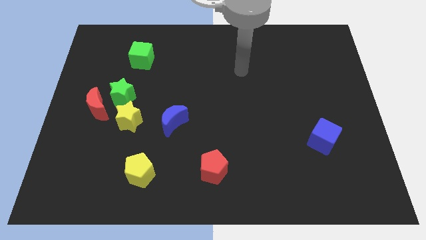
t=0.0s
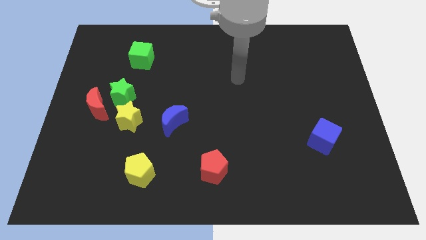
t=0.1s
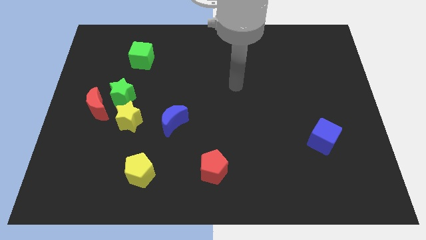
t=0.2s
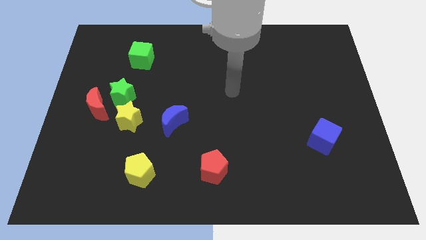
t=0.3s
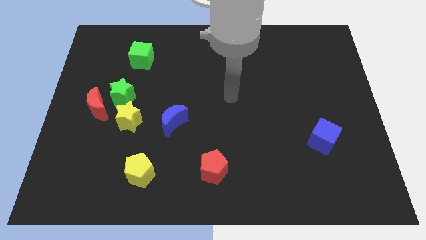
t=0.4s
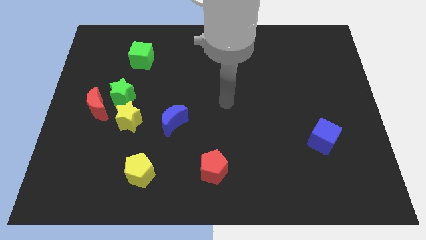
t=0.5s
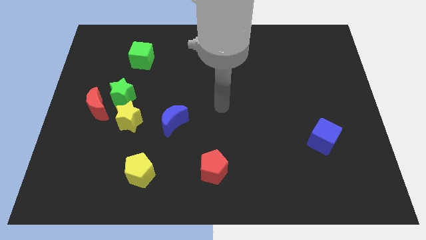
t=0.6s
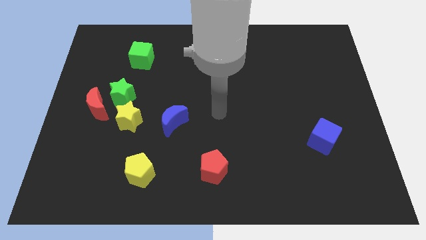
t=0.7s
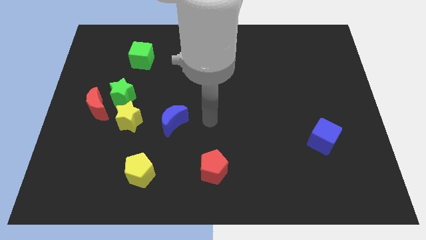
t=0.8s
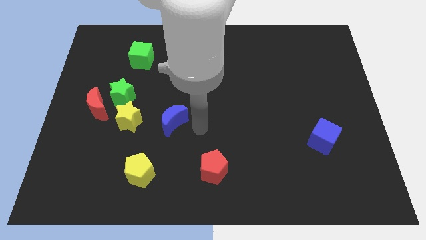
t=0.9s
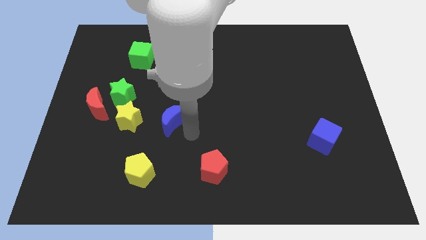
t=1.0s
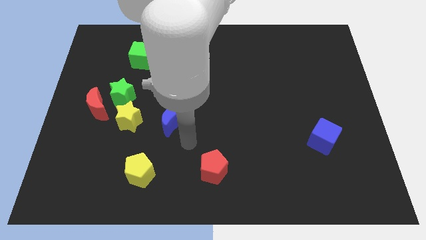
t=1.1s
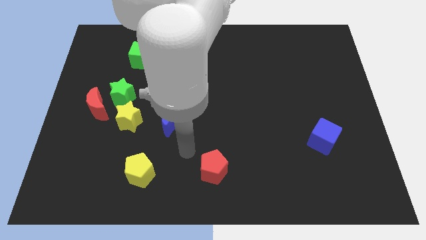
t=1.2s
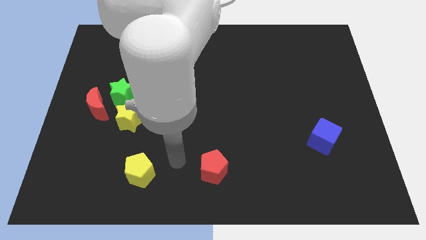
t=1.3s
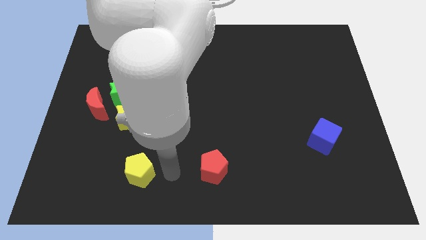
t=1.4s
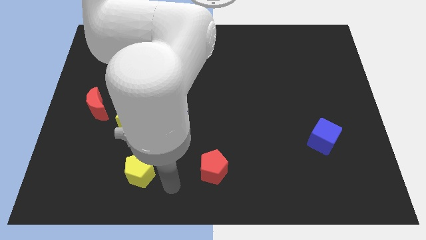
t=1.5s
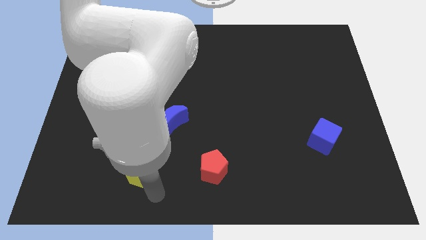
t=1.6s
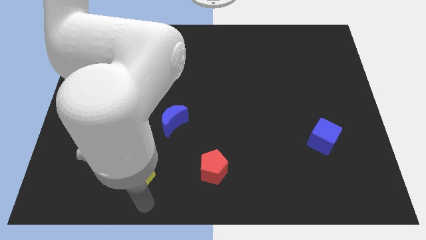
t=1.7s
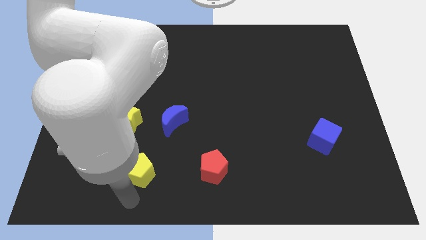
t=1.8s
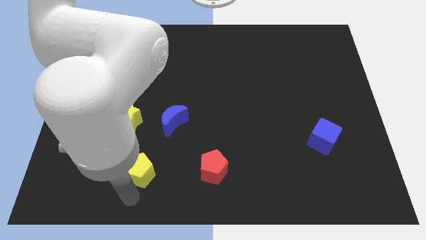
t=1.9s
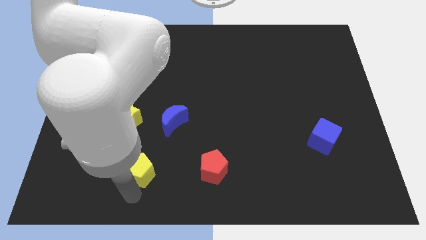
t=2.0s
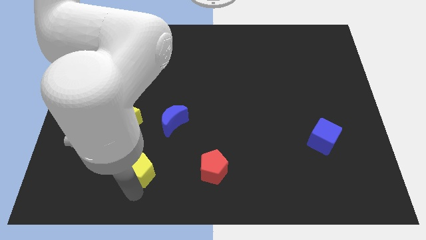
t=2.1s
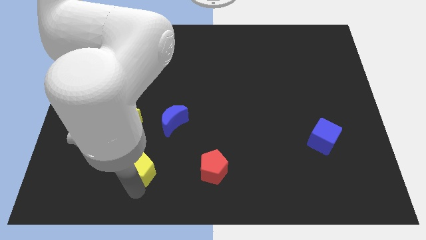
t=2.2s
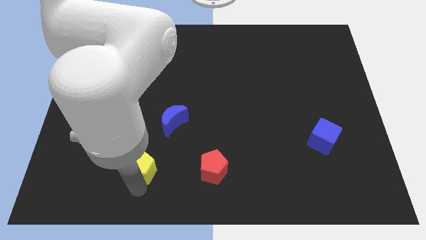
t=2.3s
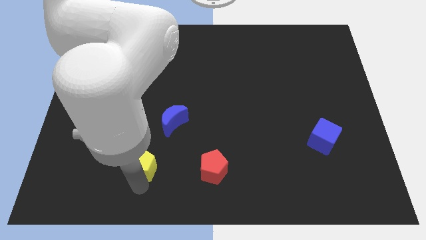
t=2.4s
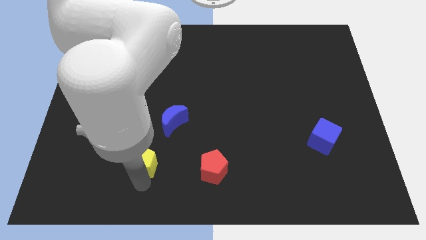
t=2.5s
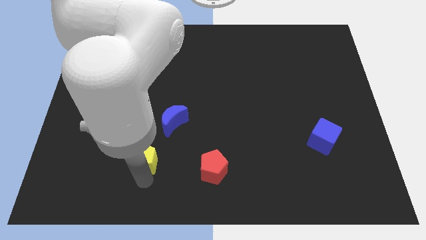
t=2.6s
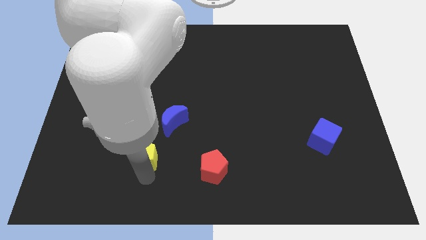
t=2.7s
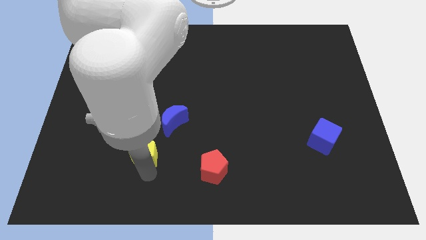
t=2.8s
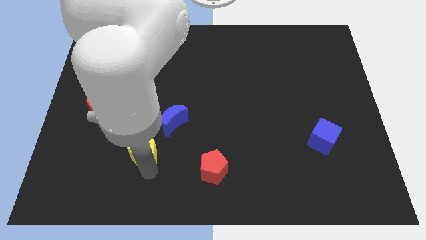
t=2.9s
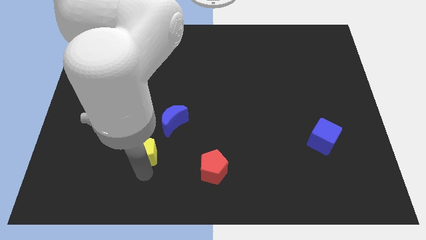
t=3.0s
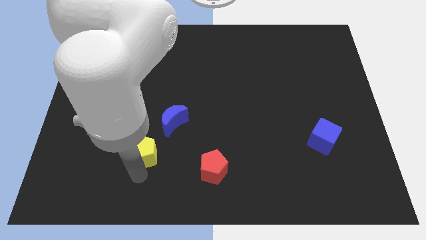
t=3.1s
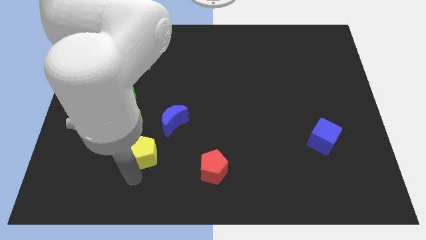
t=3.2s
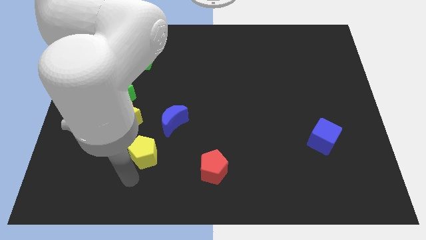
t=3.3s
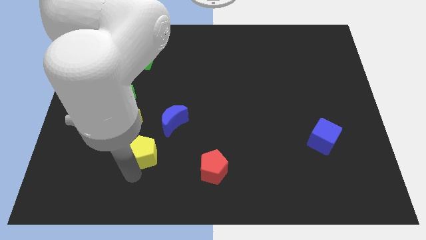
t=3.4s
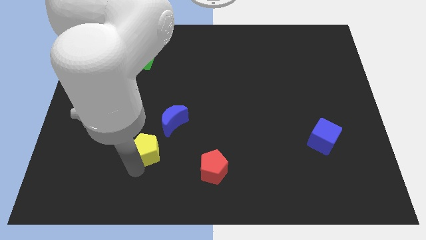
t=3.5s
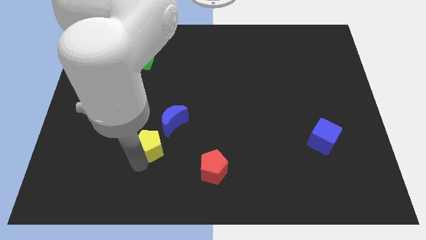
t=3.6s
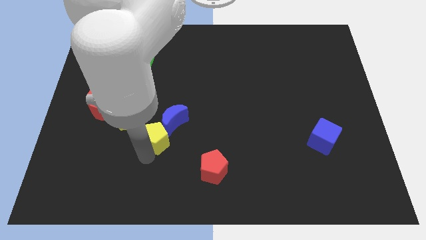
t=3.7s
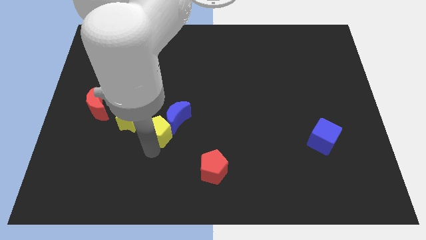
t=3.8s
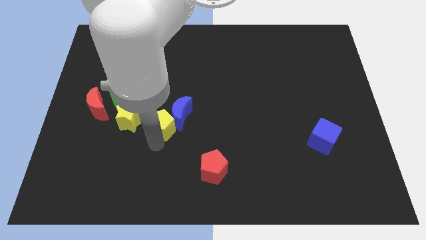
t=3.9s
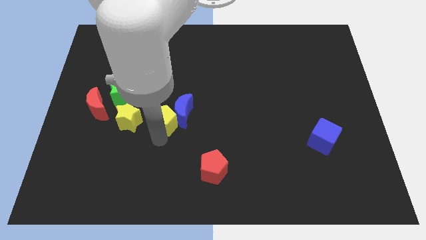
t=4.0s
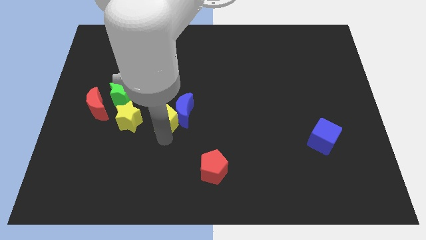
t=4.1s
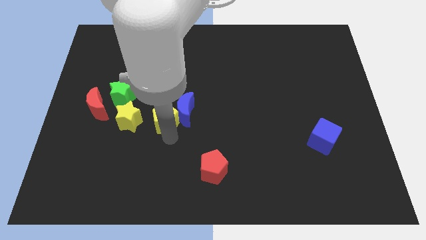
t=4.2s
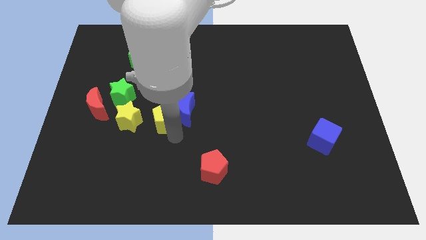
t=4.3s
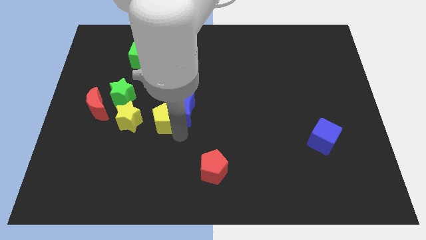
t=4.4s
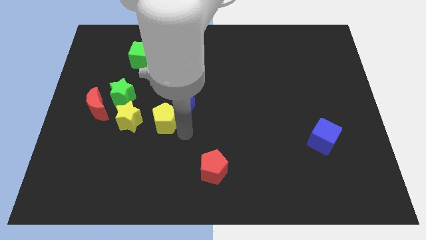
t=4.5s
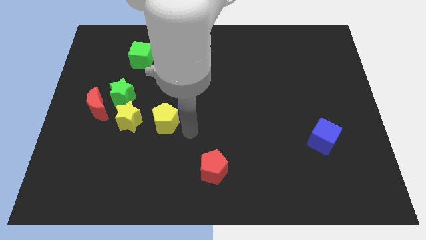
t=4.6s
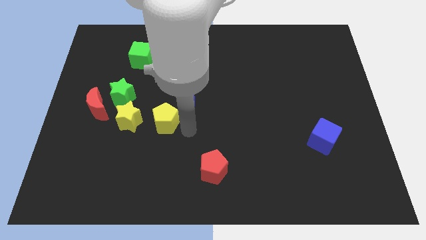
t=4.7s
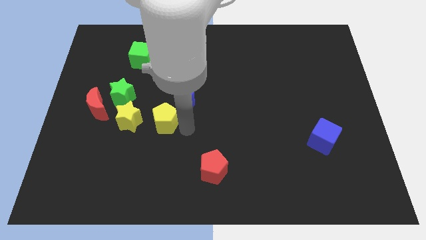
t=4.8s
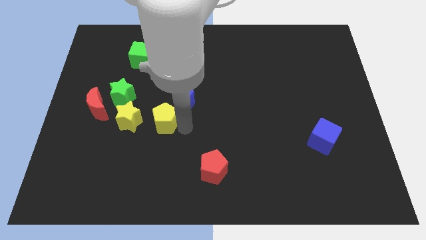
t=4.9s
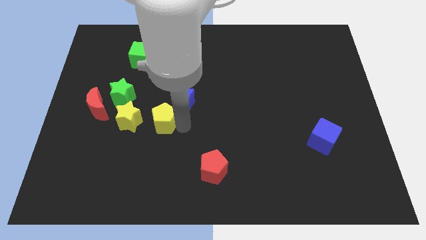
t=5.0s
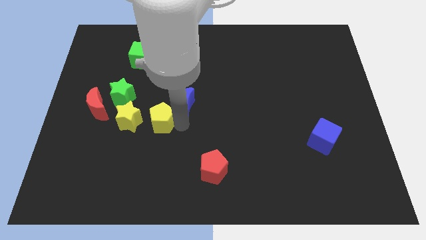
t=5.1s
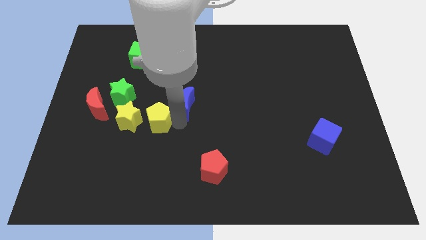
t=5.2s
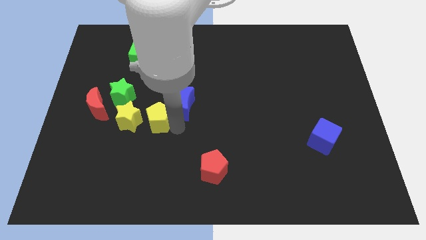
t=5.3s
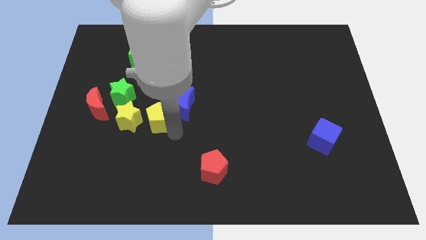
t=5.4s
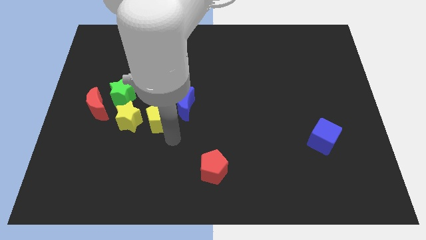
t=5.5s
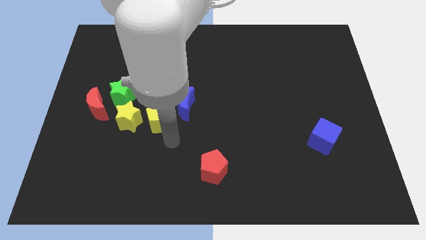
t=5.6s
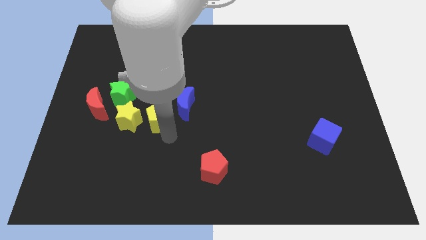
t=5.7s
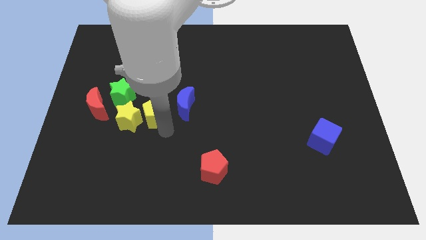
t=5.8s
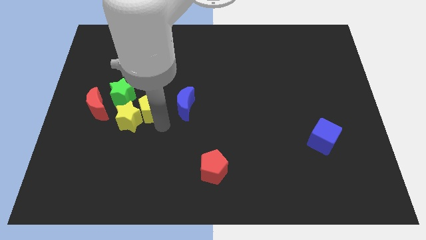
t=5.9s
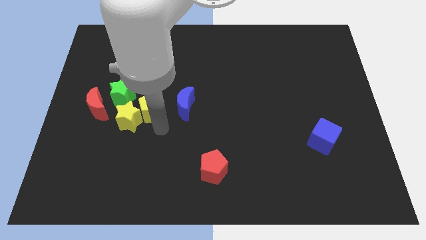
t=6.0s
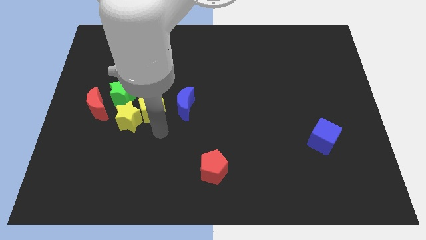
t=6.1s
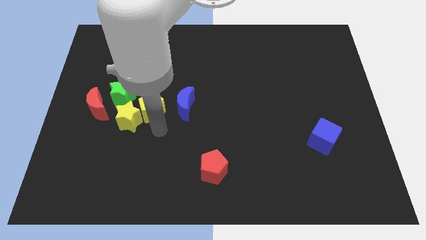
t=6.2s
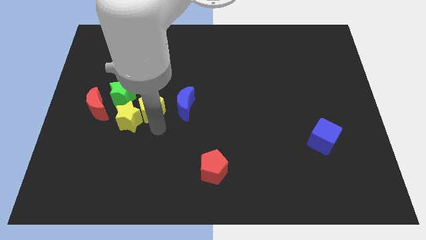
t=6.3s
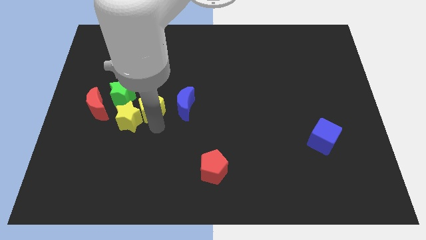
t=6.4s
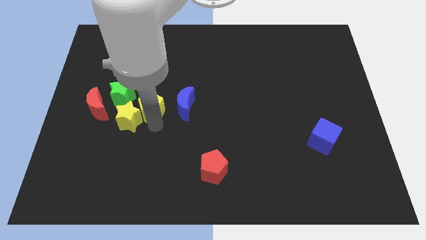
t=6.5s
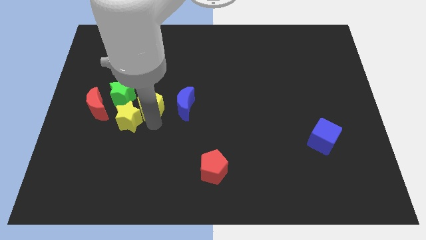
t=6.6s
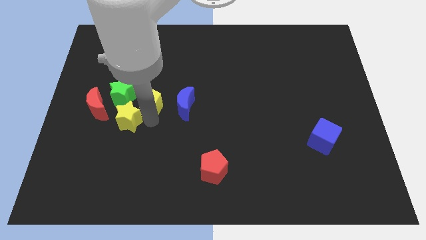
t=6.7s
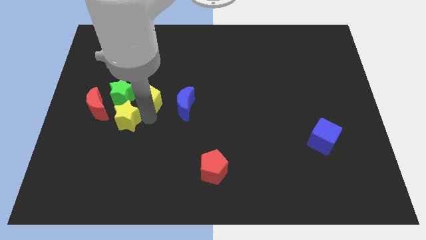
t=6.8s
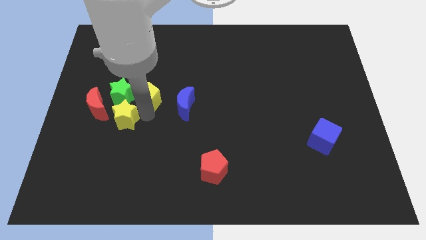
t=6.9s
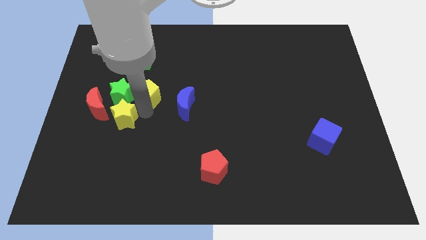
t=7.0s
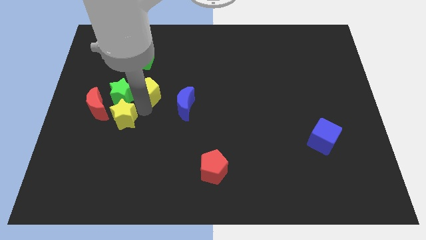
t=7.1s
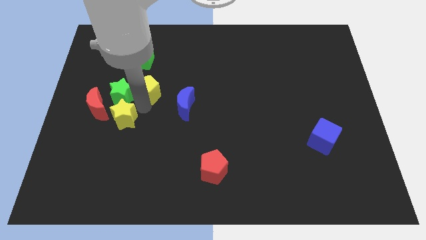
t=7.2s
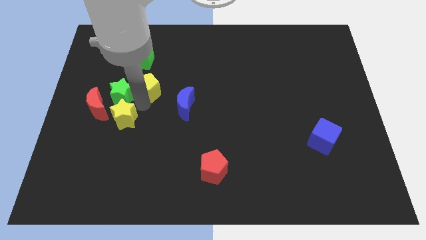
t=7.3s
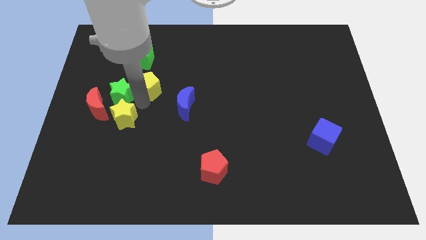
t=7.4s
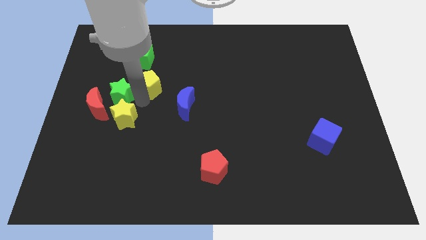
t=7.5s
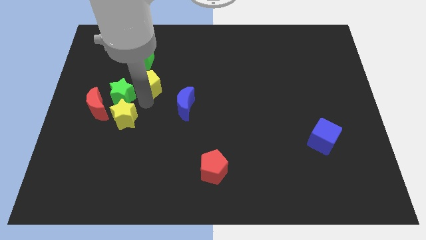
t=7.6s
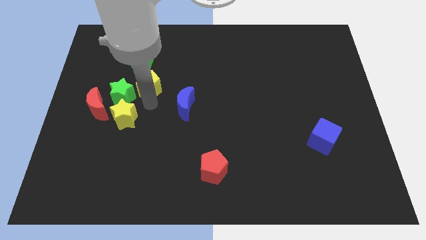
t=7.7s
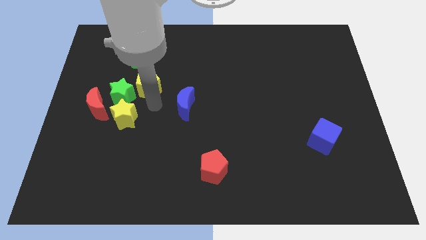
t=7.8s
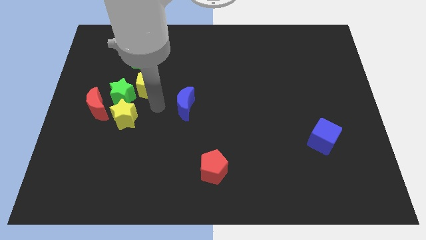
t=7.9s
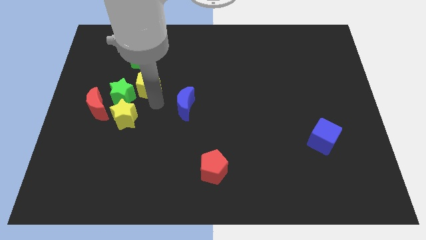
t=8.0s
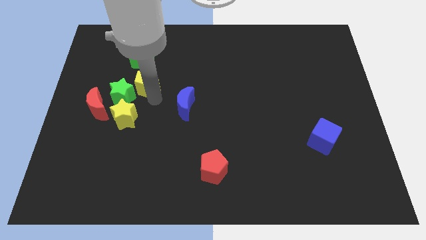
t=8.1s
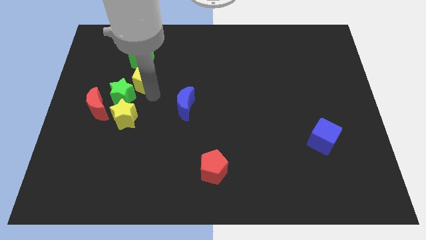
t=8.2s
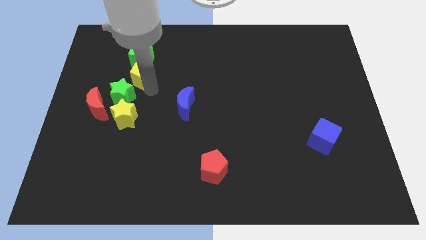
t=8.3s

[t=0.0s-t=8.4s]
move the yellow pentagon to the top side of the green star
